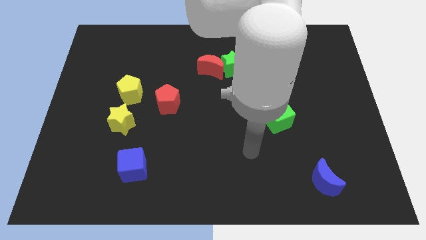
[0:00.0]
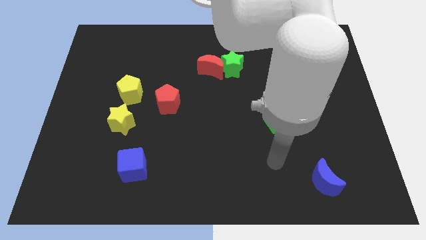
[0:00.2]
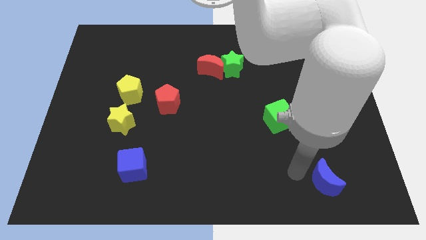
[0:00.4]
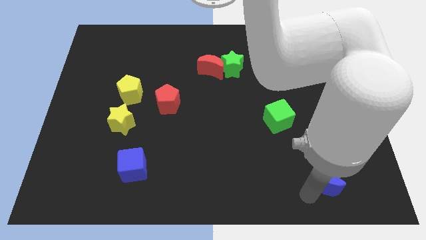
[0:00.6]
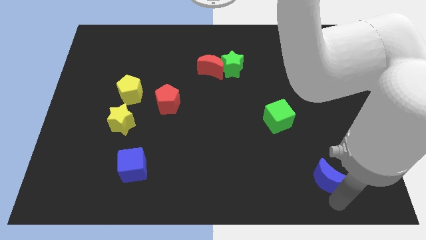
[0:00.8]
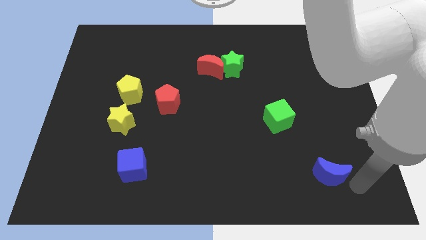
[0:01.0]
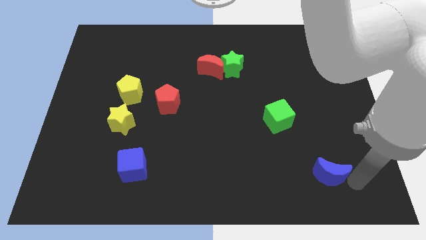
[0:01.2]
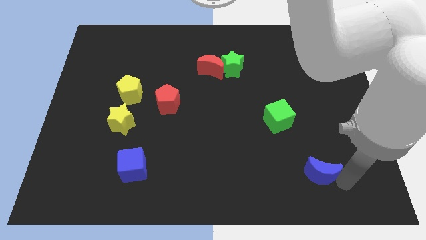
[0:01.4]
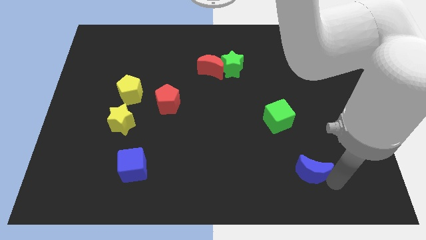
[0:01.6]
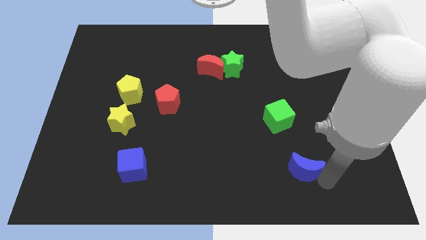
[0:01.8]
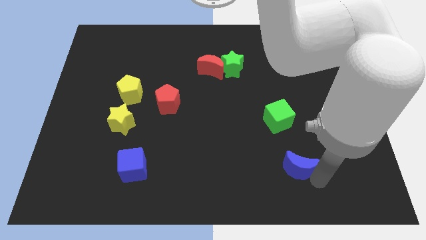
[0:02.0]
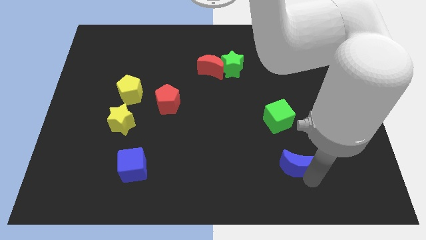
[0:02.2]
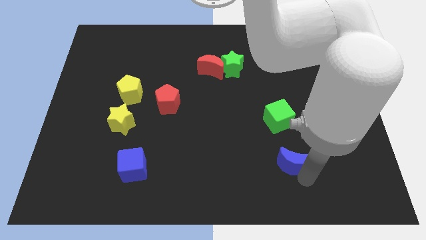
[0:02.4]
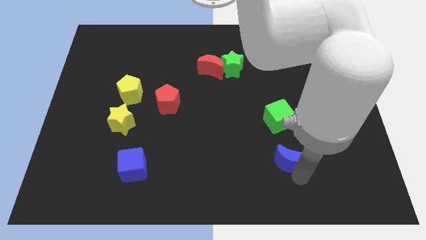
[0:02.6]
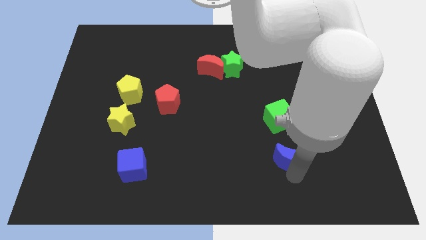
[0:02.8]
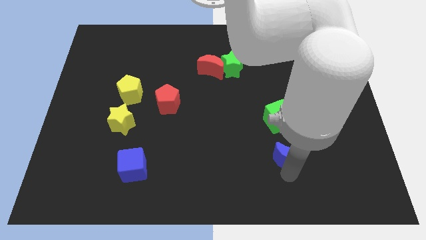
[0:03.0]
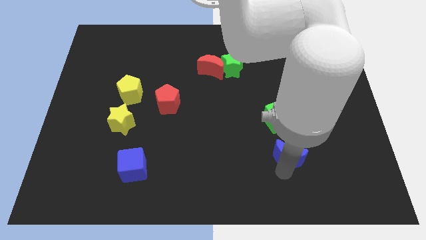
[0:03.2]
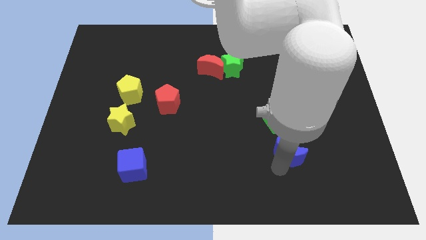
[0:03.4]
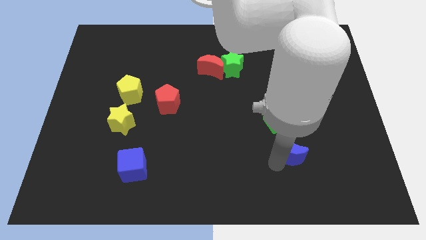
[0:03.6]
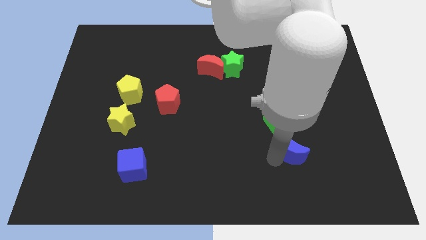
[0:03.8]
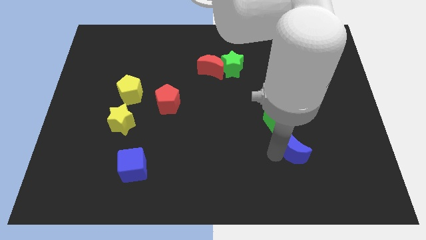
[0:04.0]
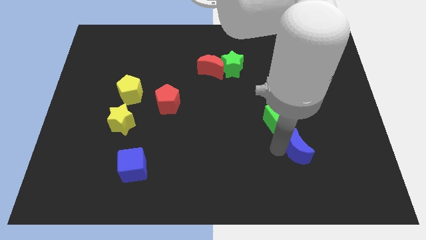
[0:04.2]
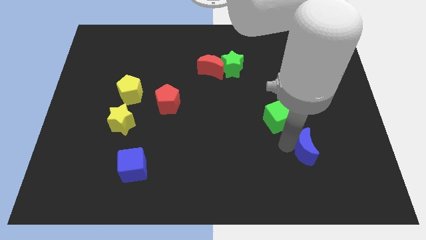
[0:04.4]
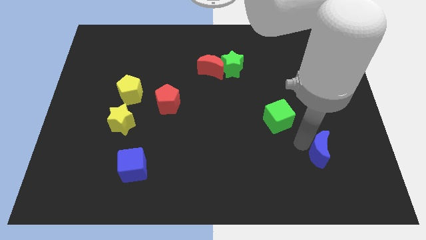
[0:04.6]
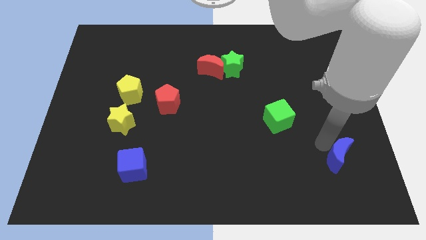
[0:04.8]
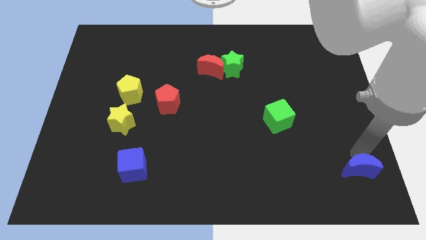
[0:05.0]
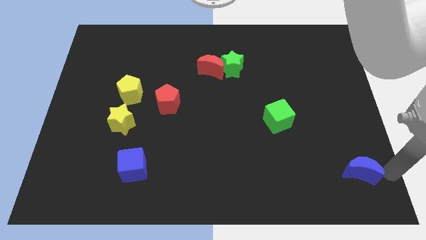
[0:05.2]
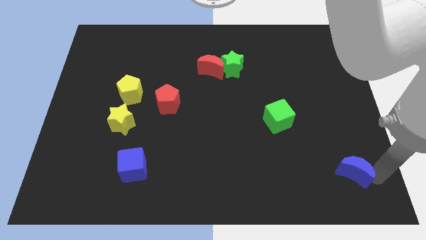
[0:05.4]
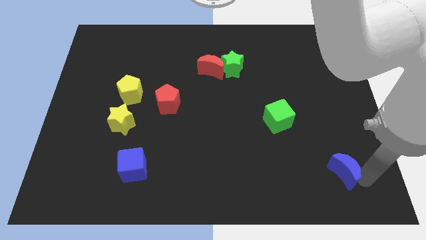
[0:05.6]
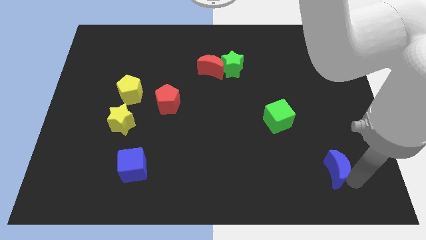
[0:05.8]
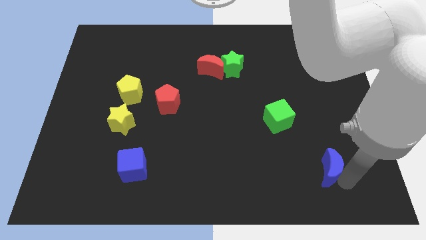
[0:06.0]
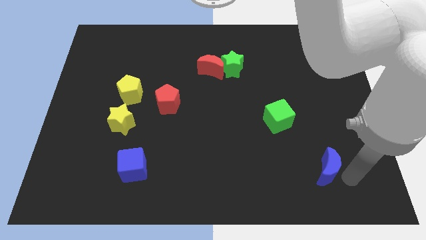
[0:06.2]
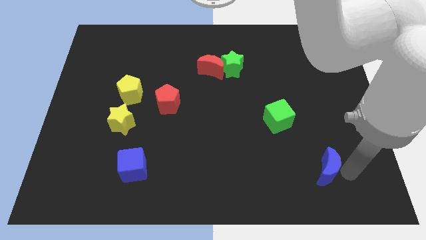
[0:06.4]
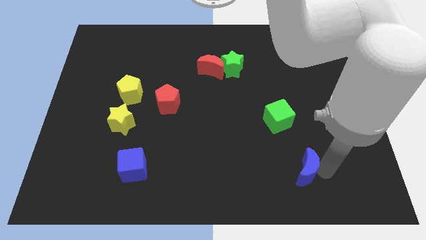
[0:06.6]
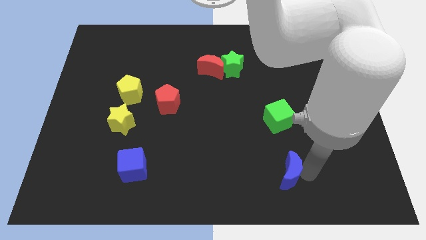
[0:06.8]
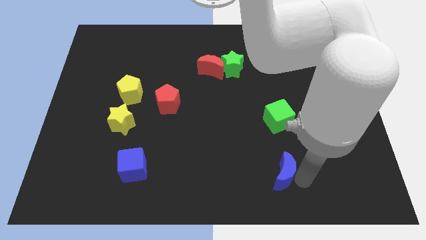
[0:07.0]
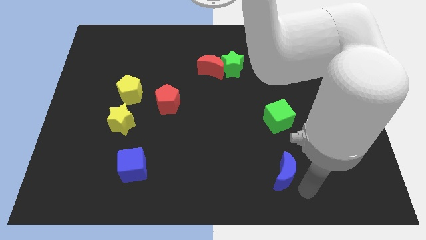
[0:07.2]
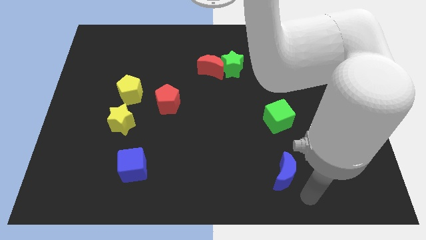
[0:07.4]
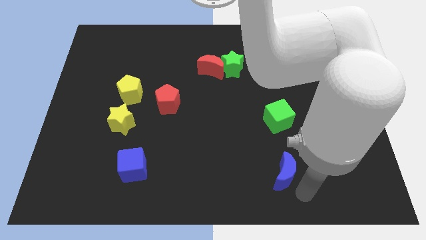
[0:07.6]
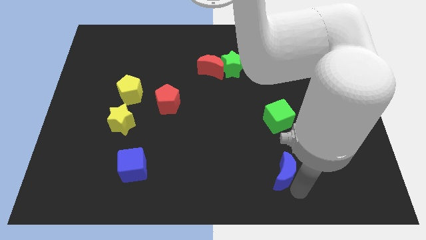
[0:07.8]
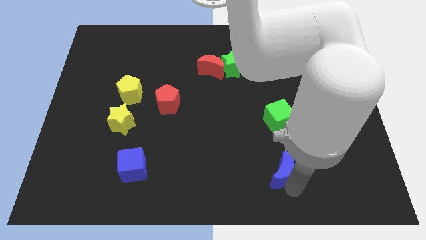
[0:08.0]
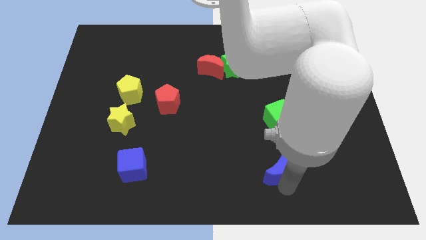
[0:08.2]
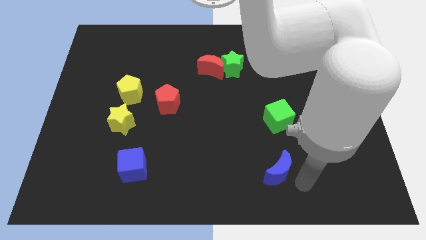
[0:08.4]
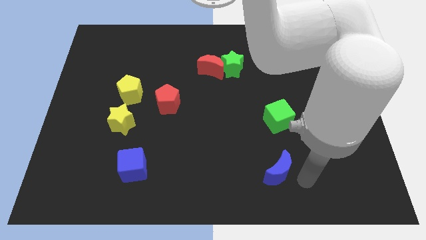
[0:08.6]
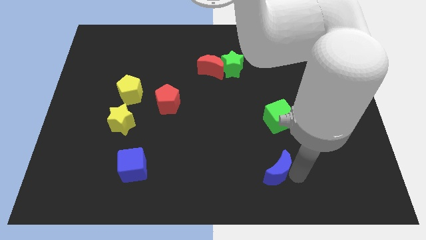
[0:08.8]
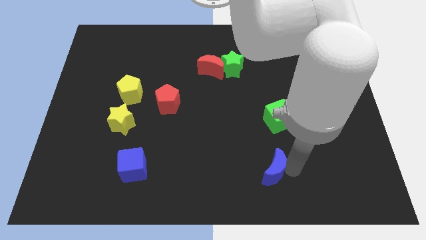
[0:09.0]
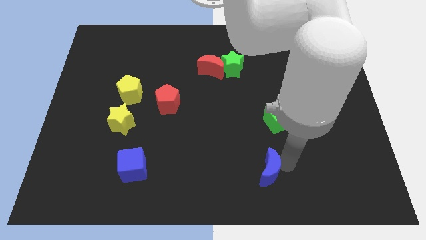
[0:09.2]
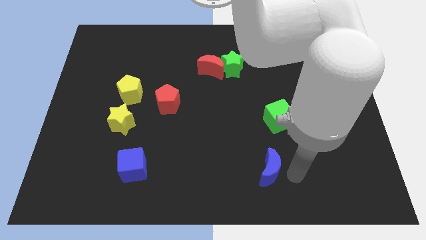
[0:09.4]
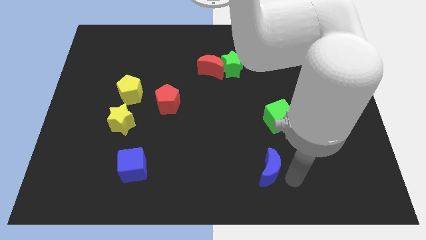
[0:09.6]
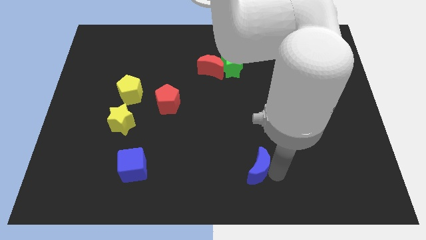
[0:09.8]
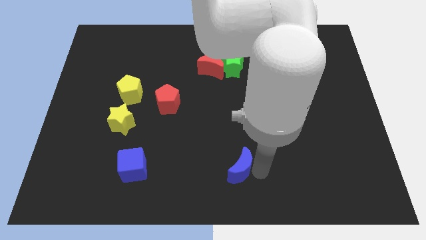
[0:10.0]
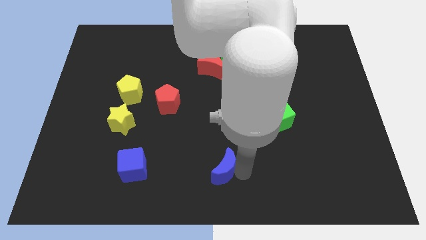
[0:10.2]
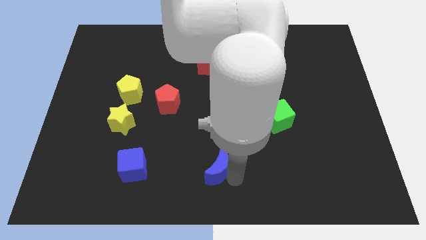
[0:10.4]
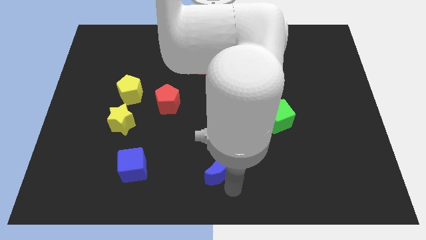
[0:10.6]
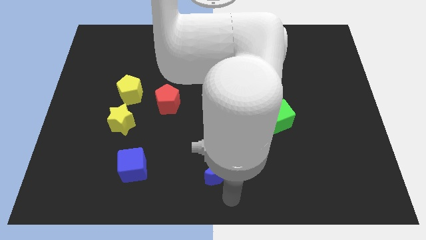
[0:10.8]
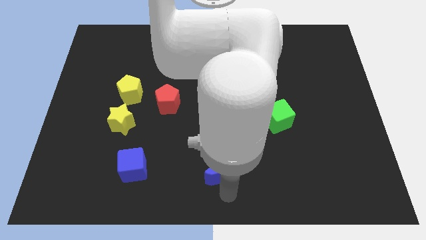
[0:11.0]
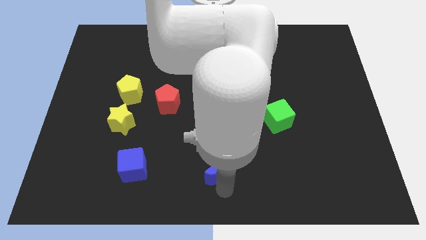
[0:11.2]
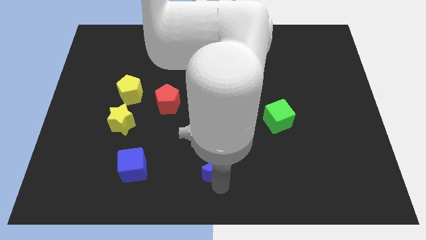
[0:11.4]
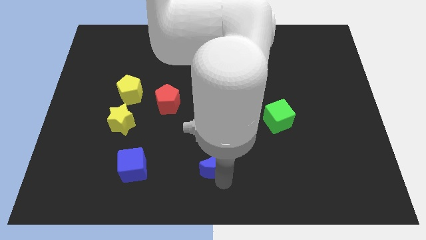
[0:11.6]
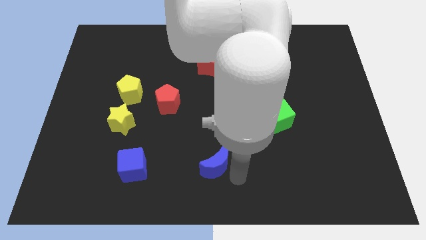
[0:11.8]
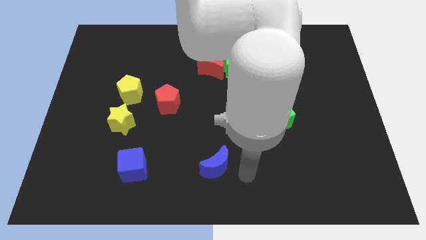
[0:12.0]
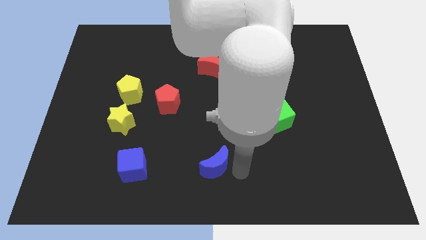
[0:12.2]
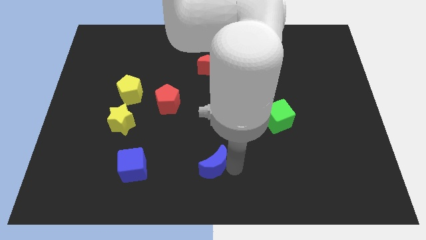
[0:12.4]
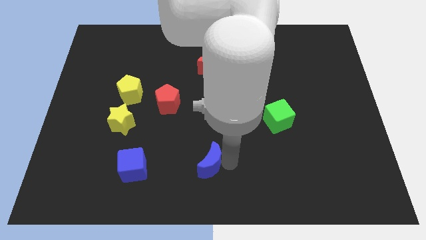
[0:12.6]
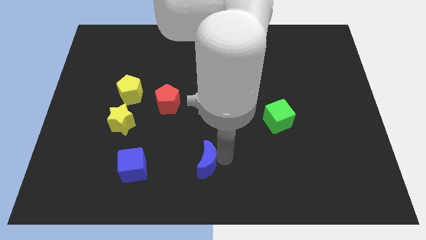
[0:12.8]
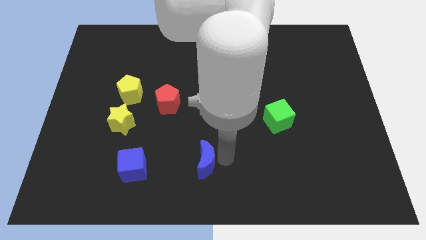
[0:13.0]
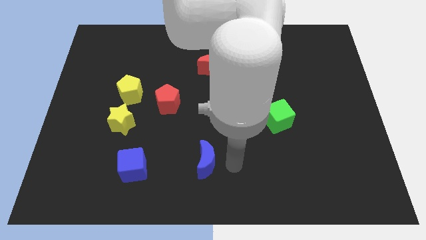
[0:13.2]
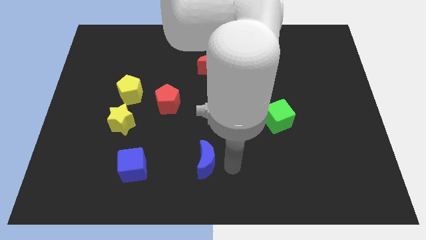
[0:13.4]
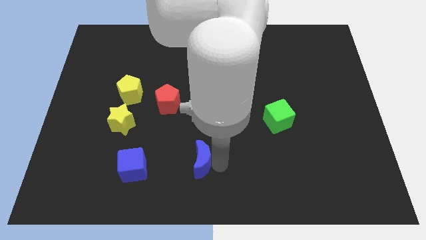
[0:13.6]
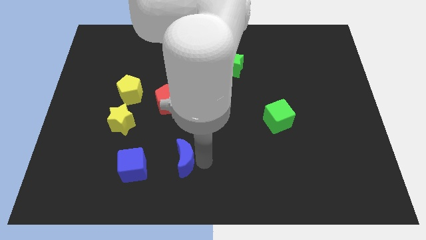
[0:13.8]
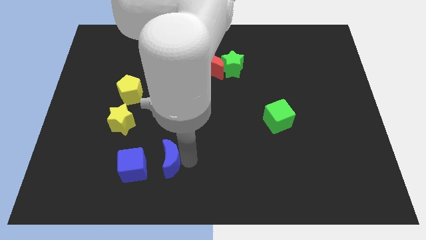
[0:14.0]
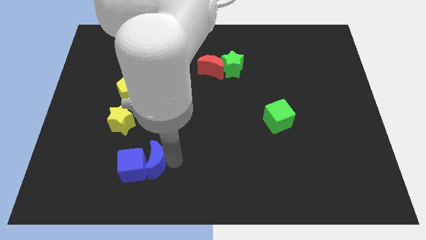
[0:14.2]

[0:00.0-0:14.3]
put the blue moon to the blue cube

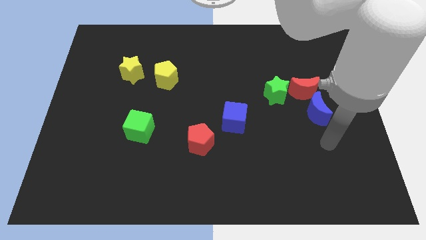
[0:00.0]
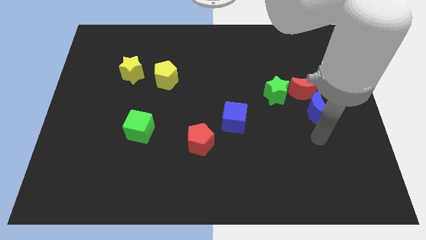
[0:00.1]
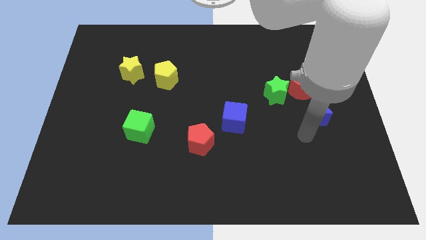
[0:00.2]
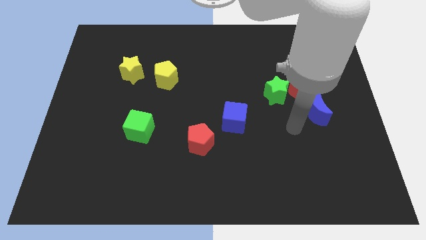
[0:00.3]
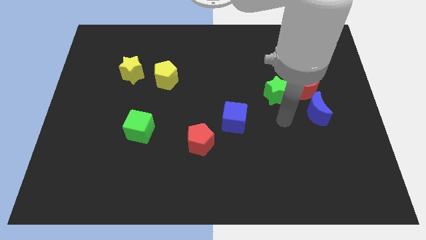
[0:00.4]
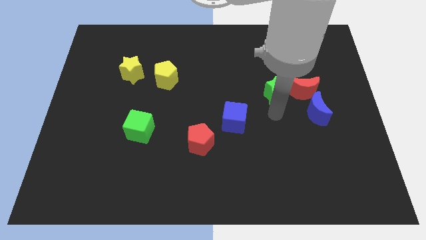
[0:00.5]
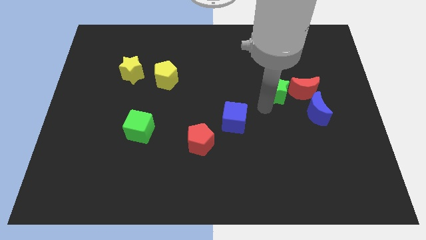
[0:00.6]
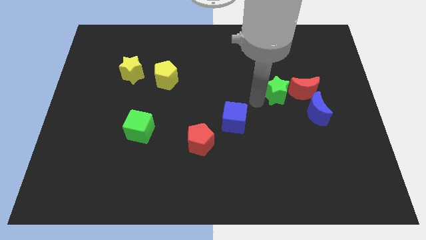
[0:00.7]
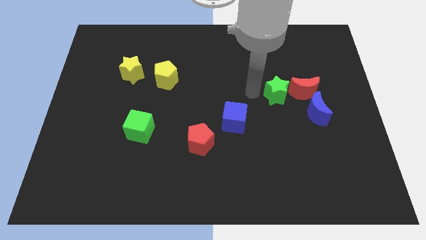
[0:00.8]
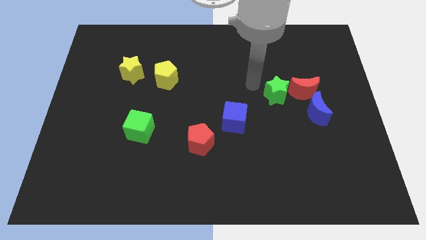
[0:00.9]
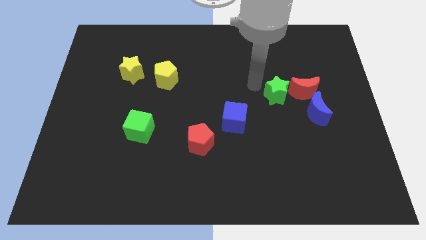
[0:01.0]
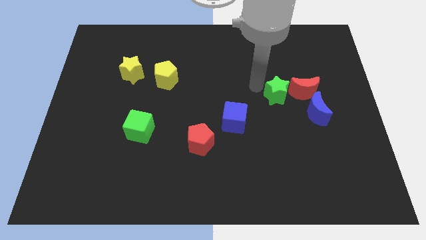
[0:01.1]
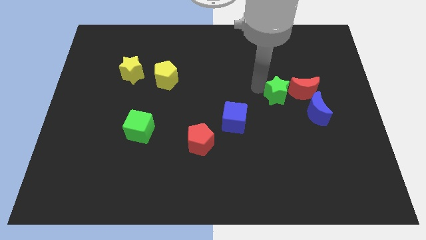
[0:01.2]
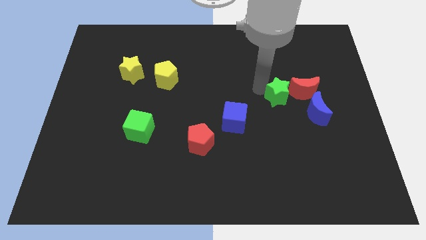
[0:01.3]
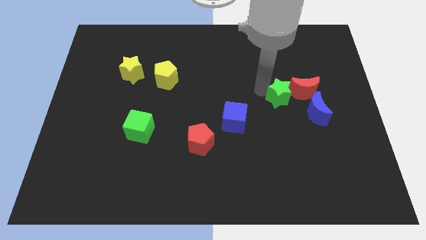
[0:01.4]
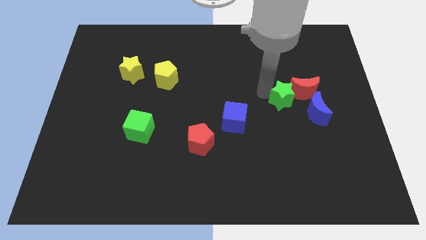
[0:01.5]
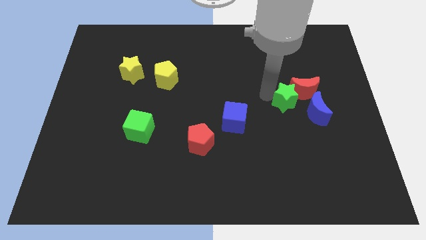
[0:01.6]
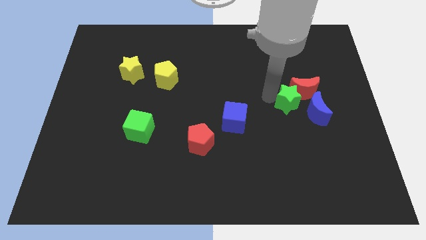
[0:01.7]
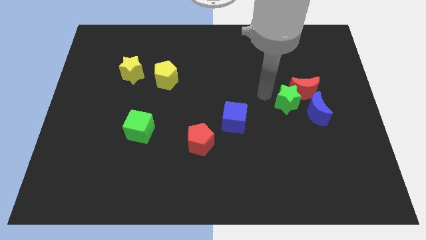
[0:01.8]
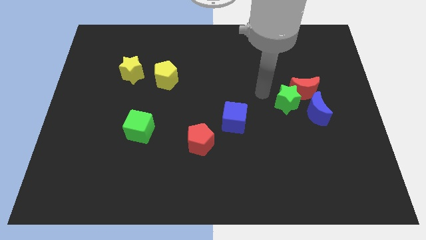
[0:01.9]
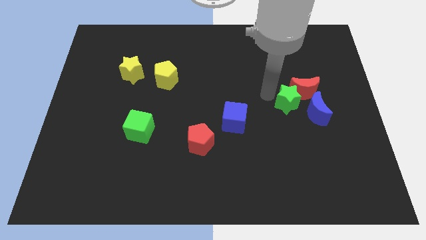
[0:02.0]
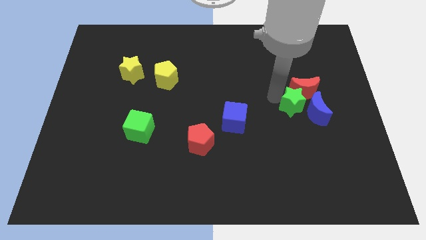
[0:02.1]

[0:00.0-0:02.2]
put the green star towards the blue moon
